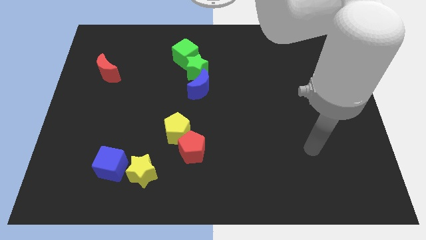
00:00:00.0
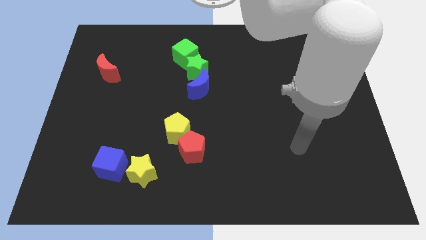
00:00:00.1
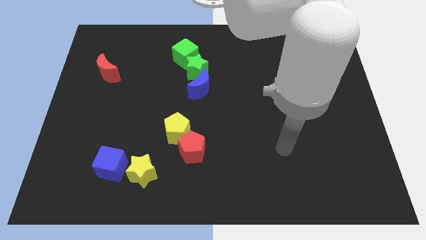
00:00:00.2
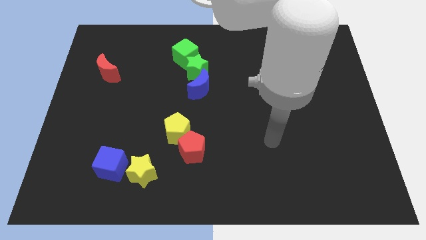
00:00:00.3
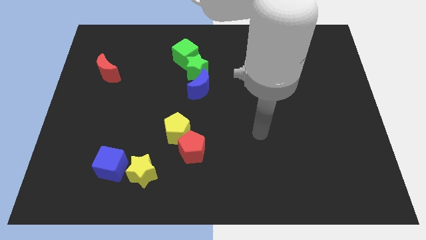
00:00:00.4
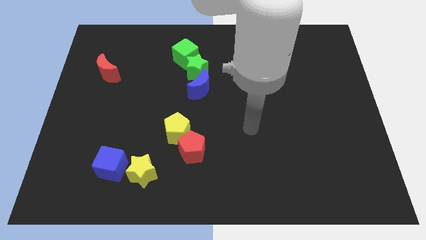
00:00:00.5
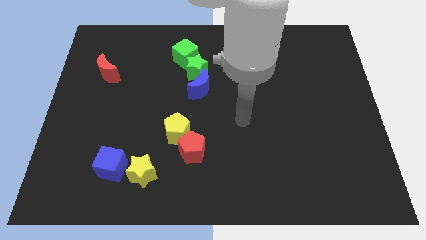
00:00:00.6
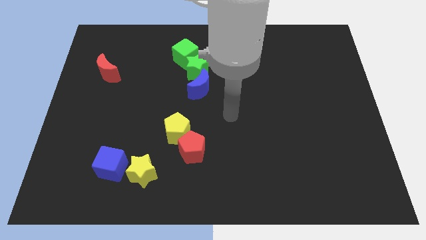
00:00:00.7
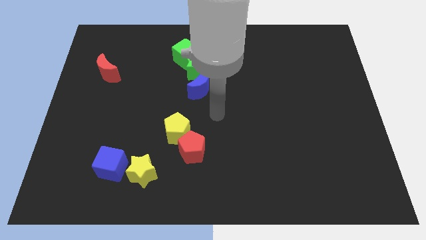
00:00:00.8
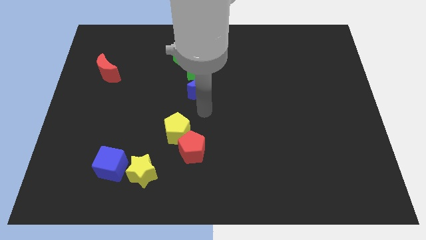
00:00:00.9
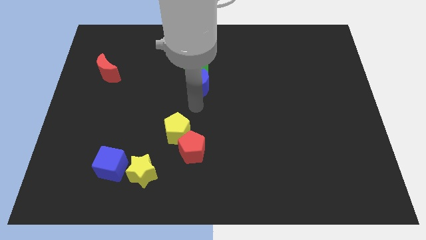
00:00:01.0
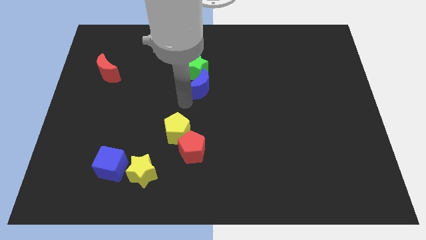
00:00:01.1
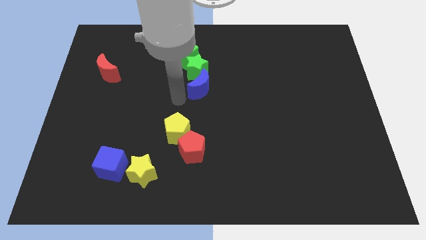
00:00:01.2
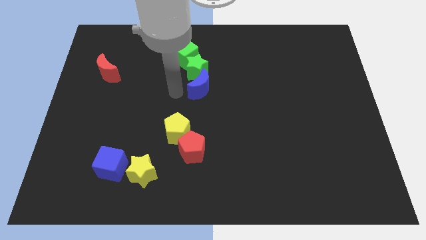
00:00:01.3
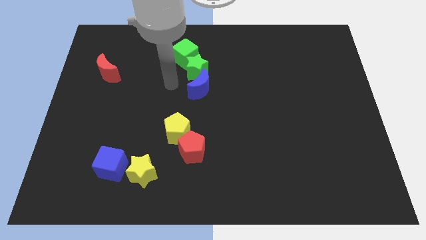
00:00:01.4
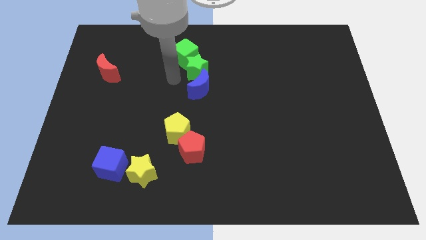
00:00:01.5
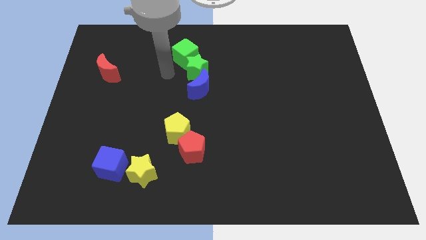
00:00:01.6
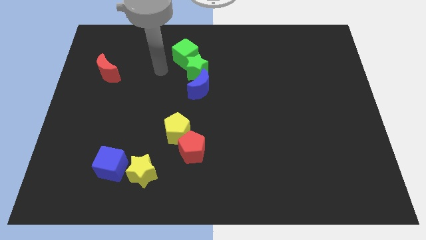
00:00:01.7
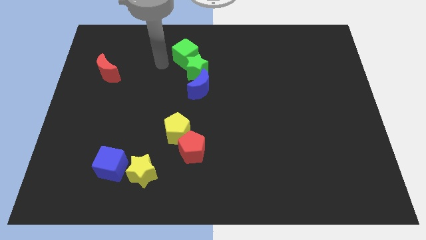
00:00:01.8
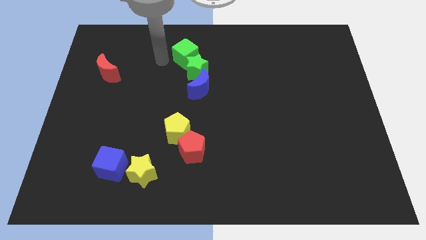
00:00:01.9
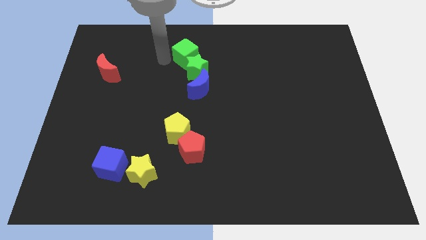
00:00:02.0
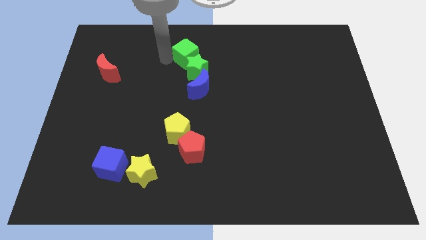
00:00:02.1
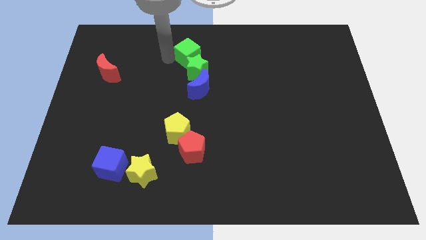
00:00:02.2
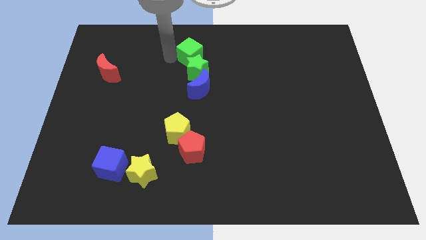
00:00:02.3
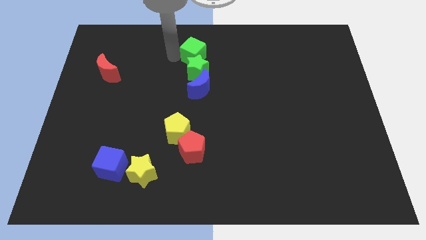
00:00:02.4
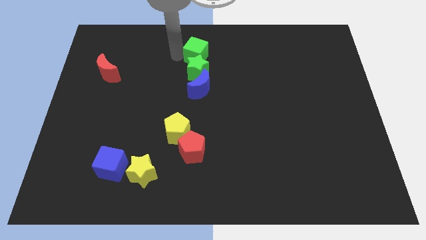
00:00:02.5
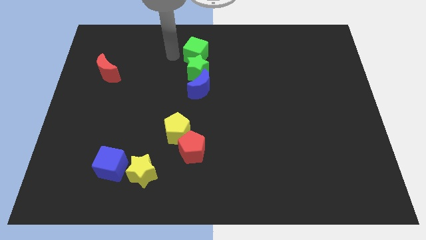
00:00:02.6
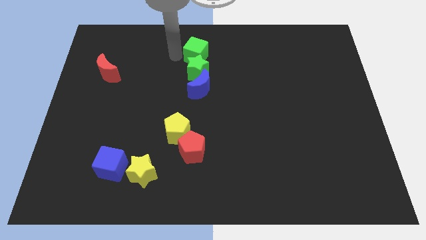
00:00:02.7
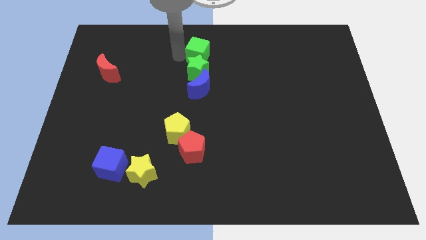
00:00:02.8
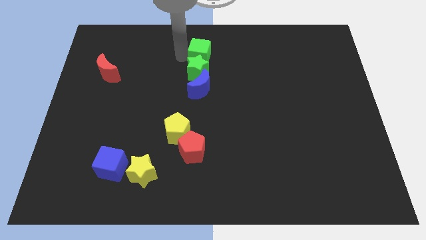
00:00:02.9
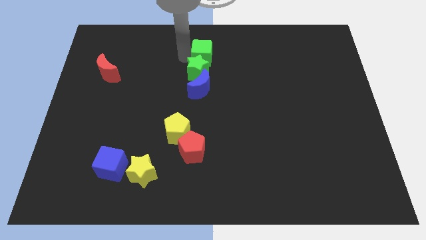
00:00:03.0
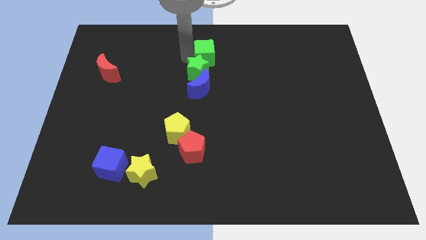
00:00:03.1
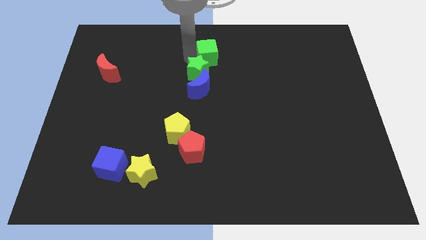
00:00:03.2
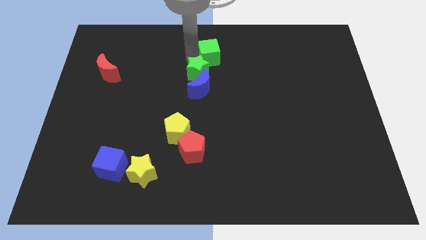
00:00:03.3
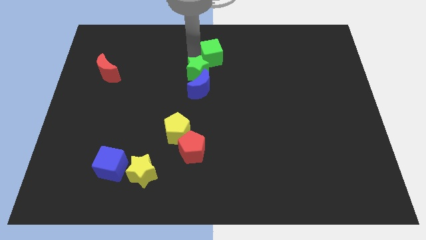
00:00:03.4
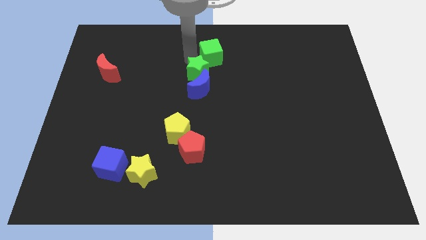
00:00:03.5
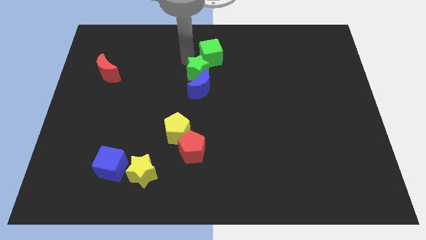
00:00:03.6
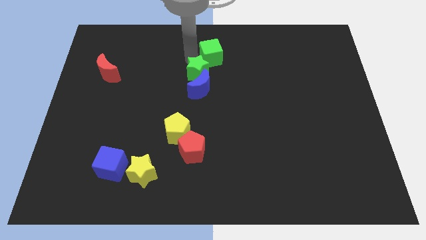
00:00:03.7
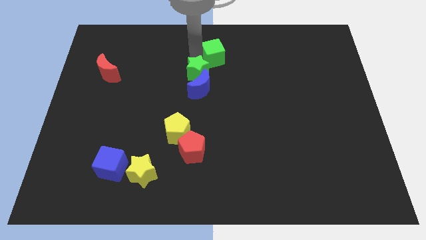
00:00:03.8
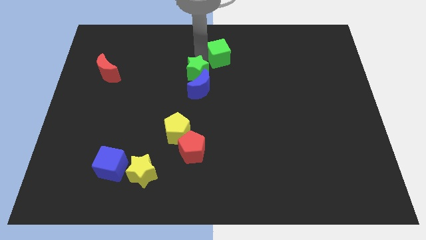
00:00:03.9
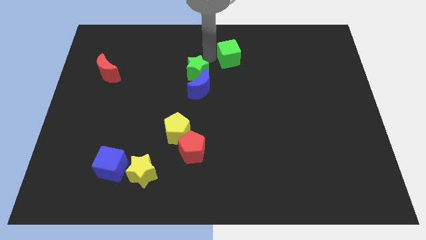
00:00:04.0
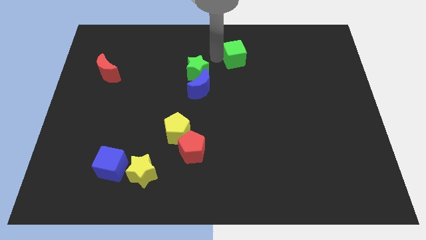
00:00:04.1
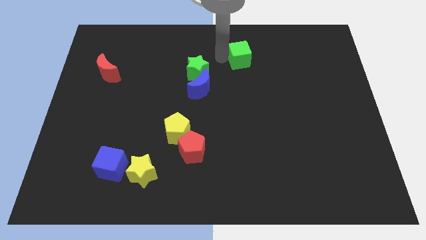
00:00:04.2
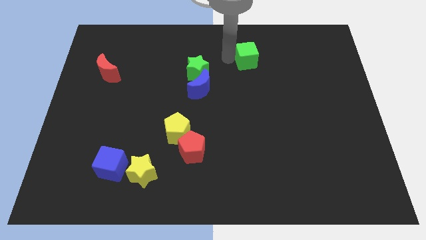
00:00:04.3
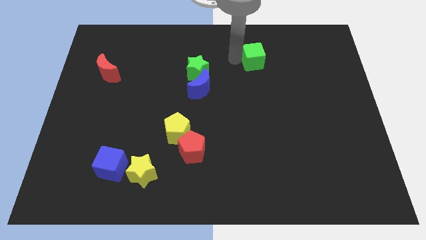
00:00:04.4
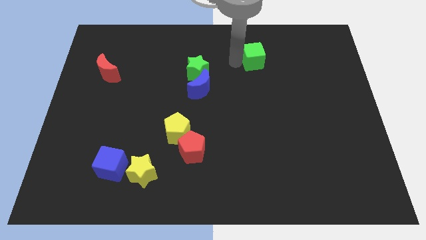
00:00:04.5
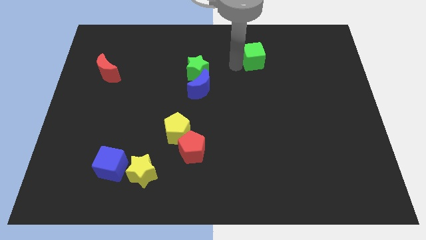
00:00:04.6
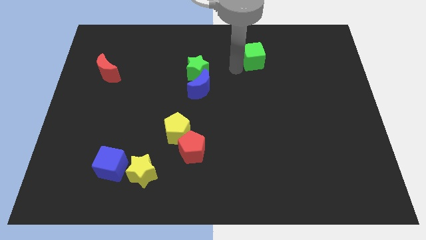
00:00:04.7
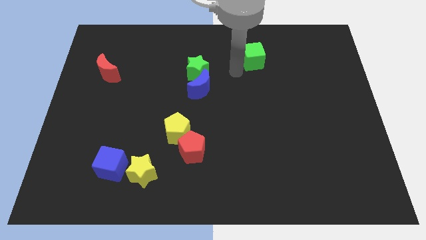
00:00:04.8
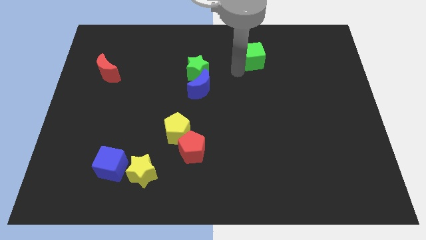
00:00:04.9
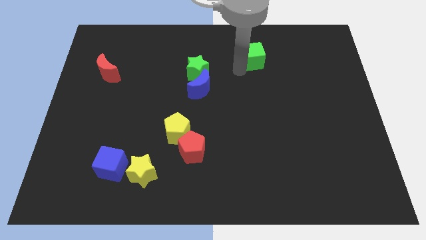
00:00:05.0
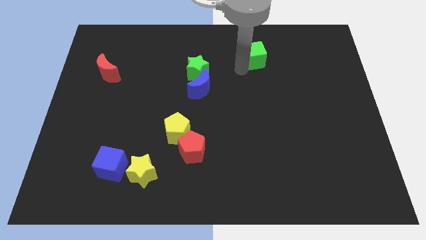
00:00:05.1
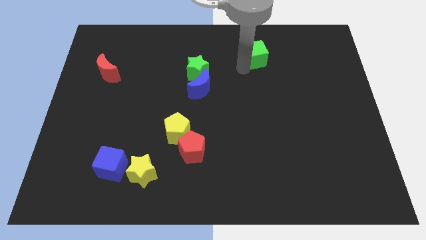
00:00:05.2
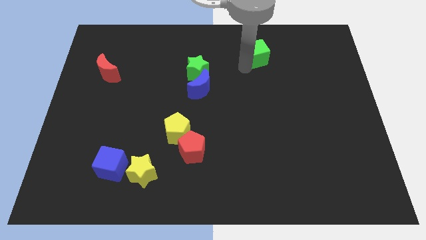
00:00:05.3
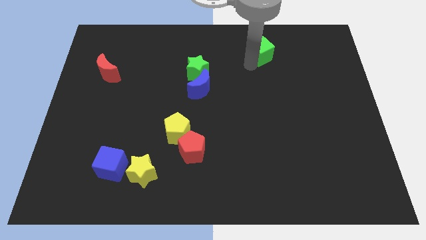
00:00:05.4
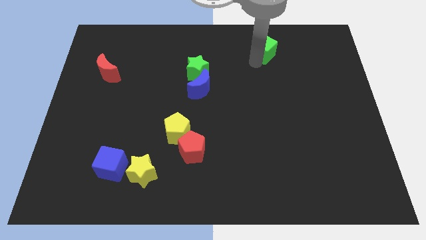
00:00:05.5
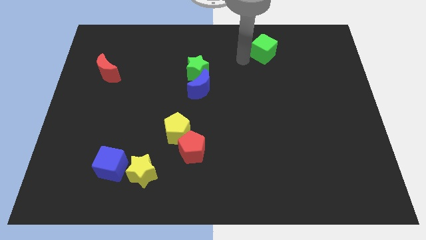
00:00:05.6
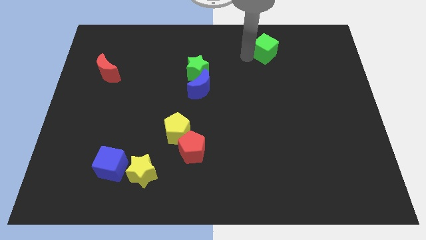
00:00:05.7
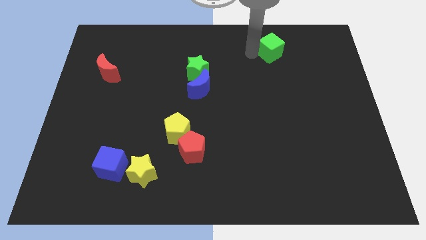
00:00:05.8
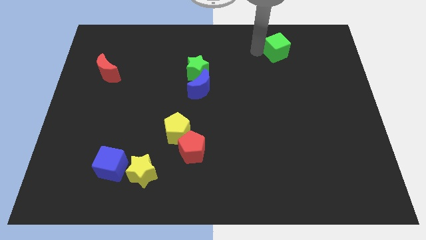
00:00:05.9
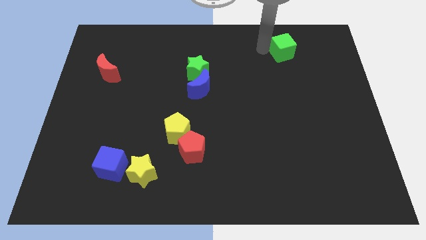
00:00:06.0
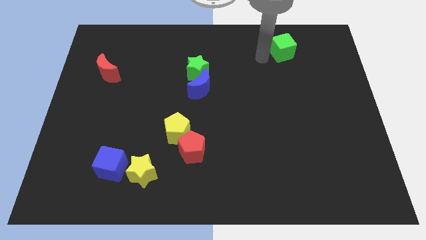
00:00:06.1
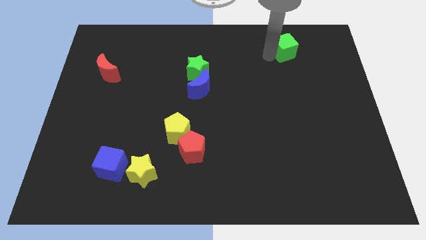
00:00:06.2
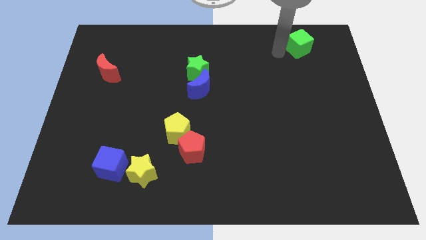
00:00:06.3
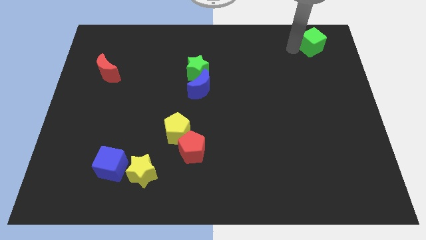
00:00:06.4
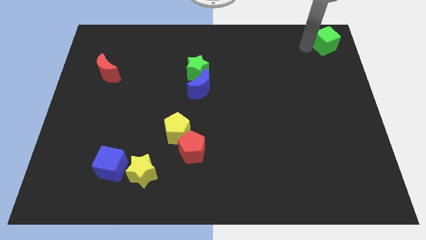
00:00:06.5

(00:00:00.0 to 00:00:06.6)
put the green cube to the top right
